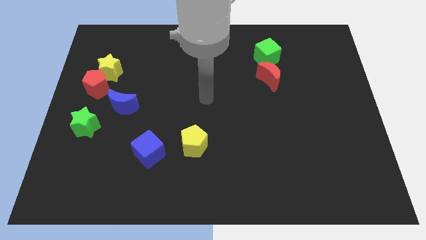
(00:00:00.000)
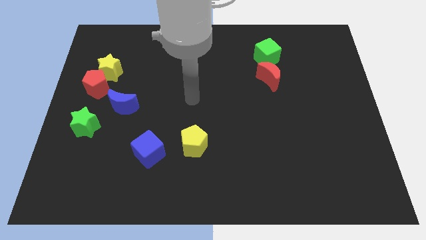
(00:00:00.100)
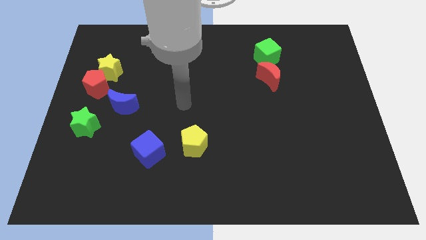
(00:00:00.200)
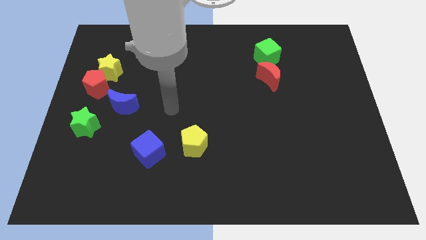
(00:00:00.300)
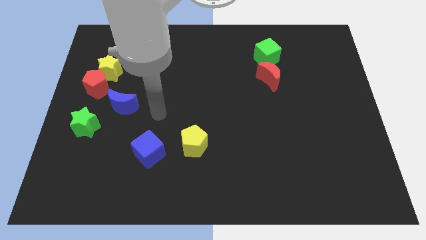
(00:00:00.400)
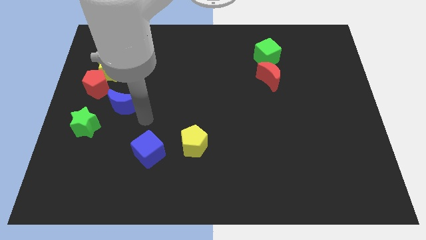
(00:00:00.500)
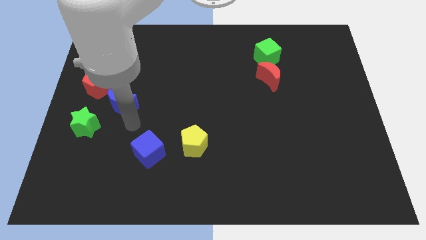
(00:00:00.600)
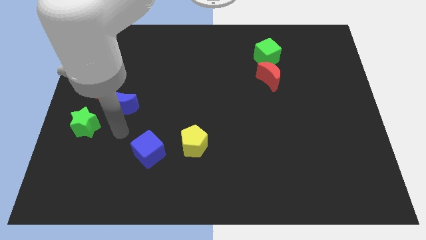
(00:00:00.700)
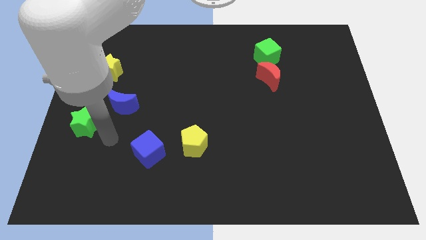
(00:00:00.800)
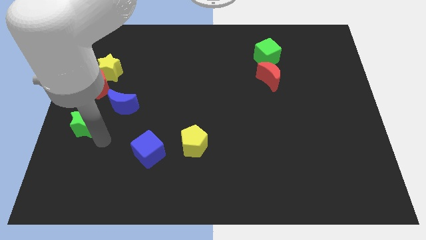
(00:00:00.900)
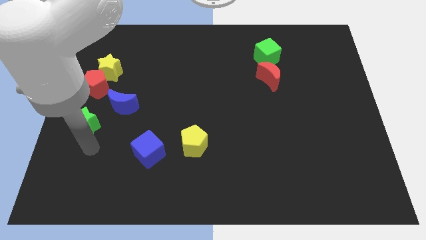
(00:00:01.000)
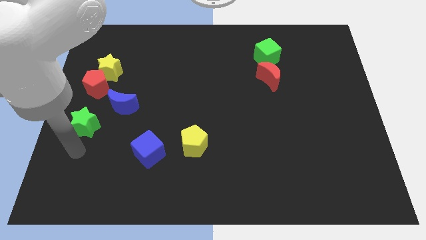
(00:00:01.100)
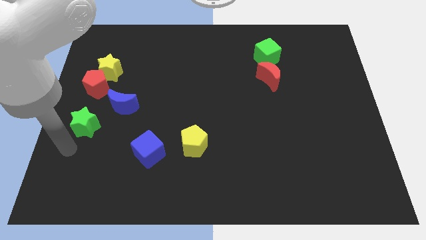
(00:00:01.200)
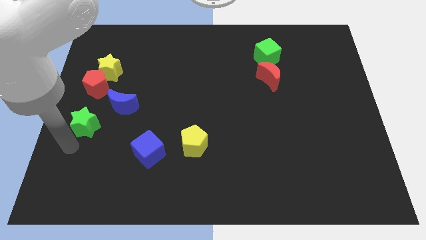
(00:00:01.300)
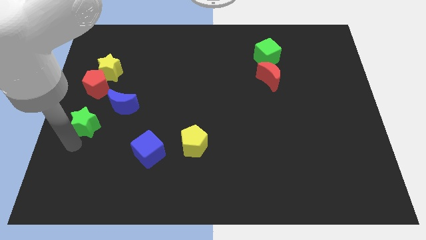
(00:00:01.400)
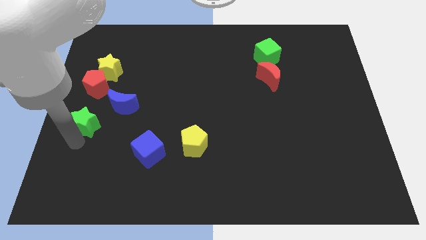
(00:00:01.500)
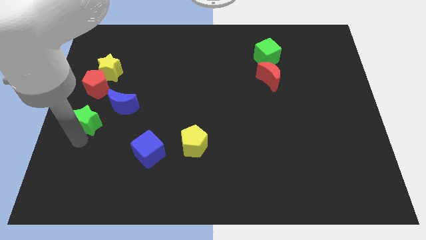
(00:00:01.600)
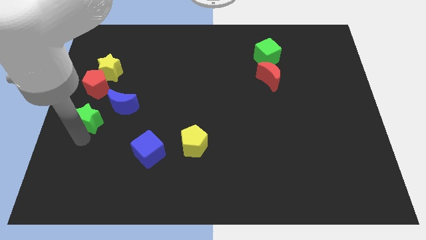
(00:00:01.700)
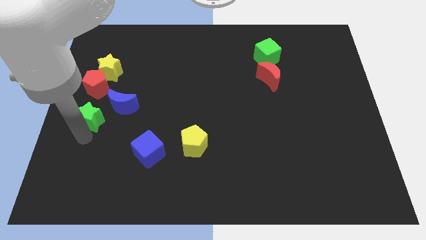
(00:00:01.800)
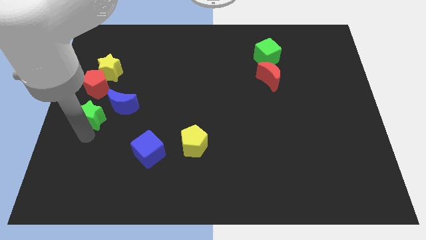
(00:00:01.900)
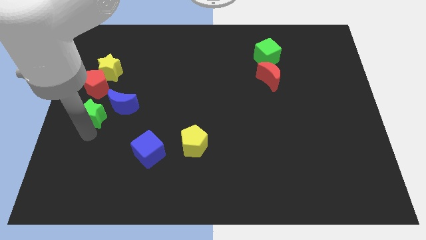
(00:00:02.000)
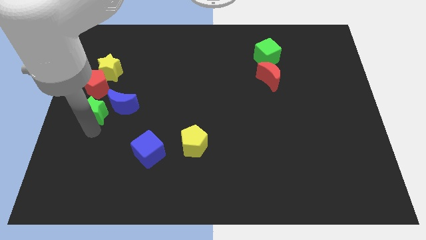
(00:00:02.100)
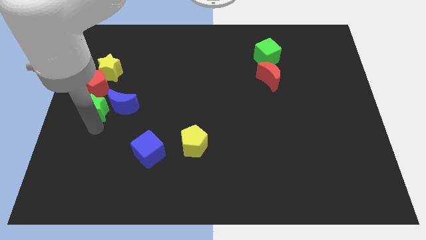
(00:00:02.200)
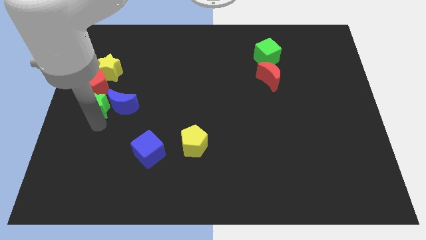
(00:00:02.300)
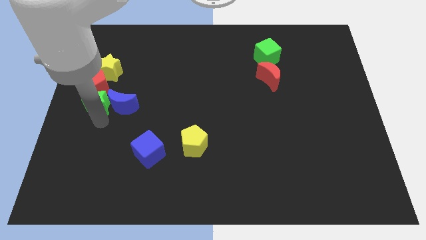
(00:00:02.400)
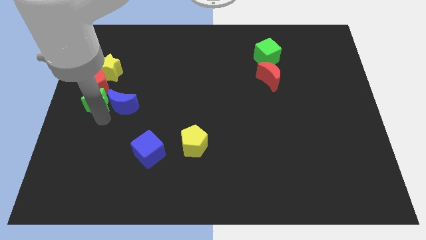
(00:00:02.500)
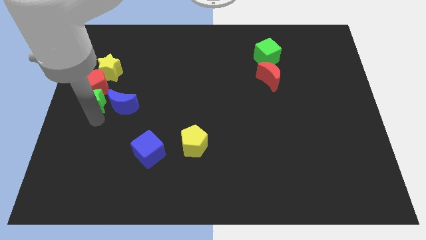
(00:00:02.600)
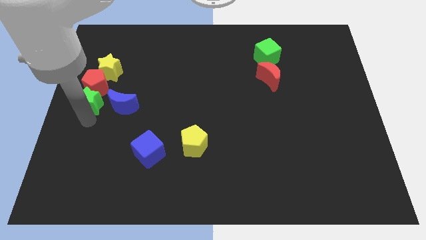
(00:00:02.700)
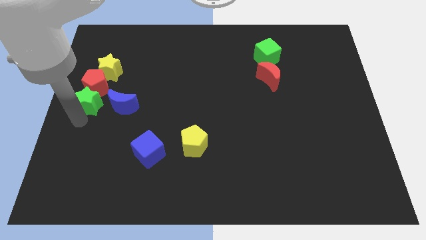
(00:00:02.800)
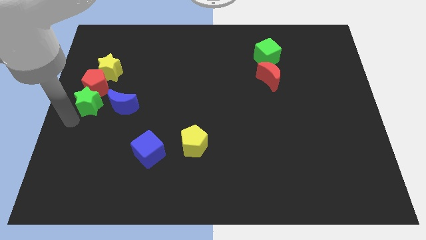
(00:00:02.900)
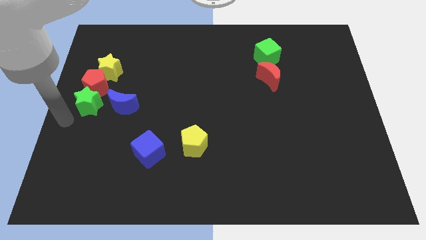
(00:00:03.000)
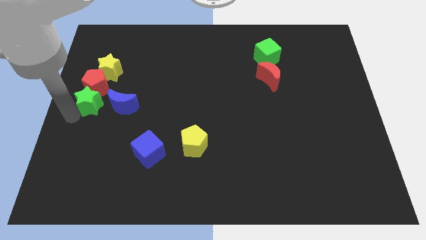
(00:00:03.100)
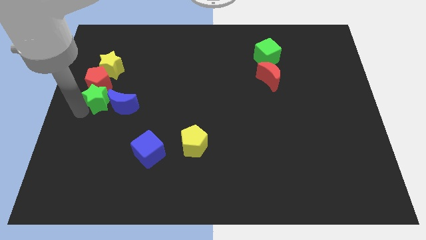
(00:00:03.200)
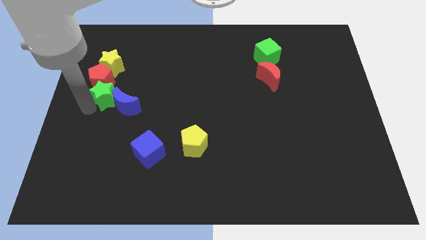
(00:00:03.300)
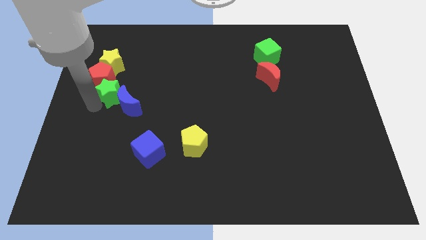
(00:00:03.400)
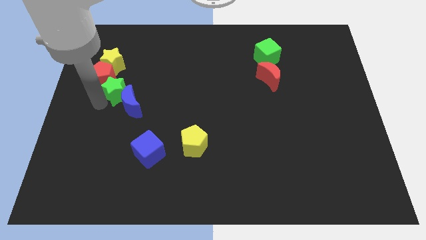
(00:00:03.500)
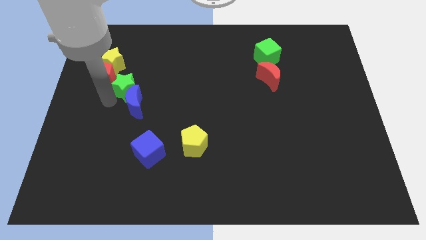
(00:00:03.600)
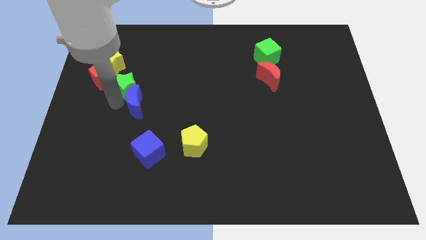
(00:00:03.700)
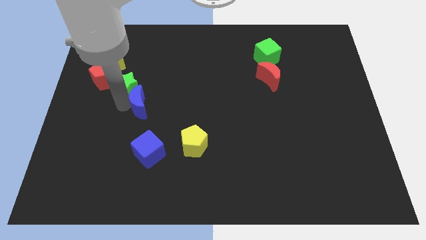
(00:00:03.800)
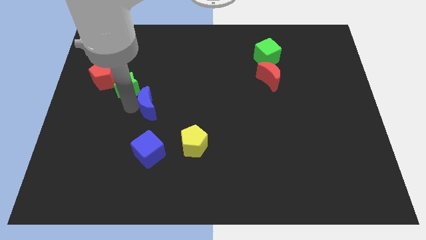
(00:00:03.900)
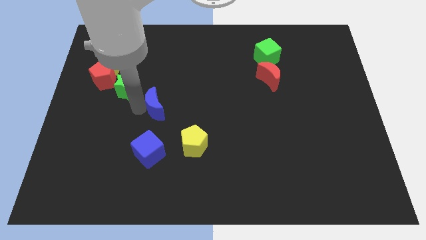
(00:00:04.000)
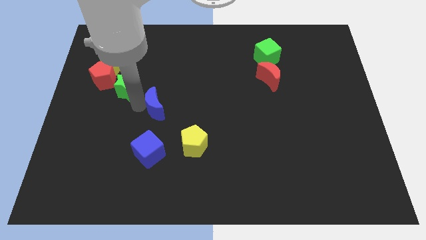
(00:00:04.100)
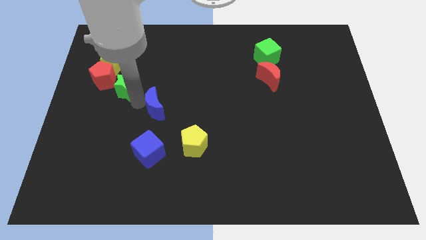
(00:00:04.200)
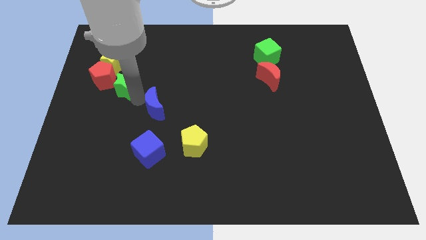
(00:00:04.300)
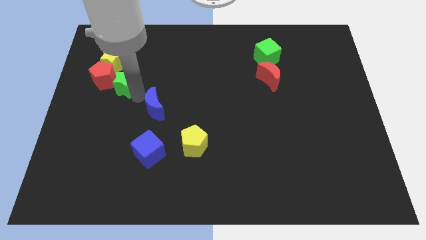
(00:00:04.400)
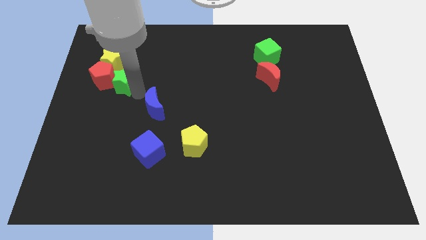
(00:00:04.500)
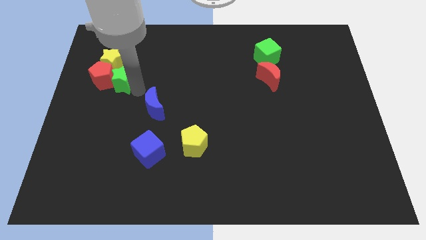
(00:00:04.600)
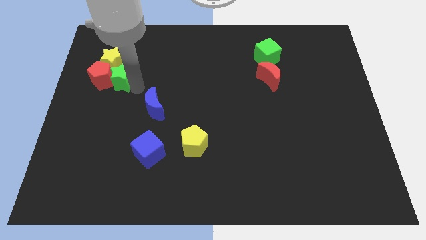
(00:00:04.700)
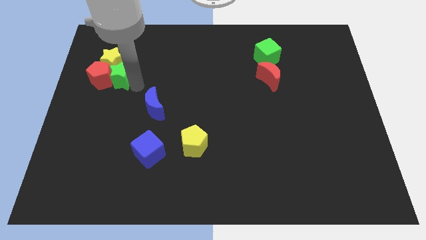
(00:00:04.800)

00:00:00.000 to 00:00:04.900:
slide the green star next to the yellow star

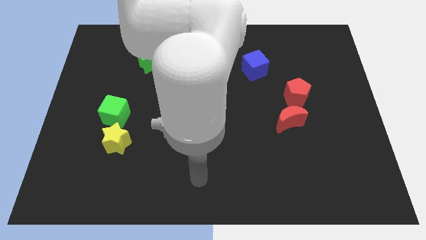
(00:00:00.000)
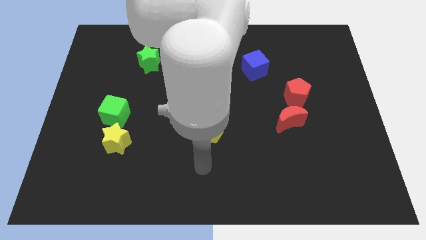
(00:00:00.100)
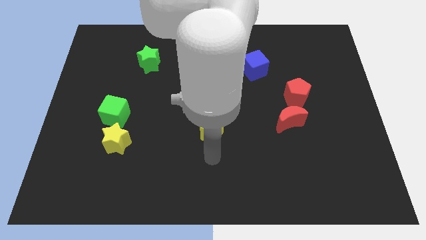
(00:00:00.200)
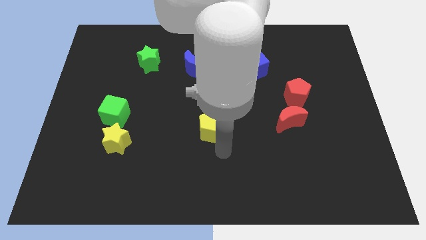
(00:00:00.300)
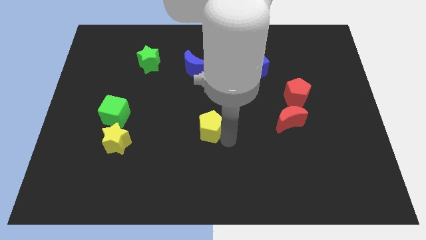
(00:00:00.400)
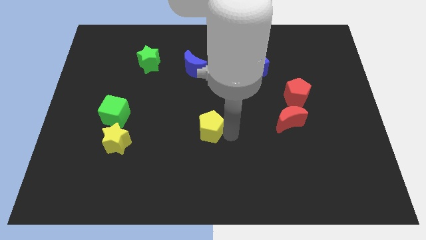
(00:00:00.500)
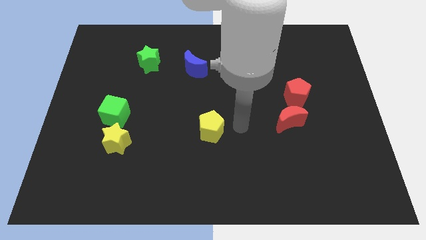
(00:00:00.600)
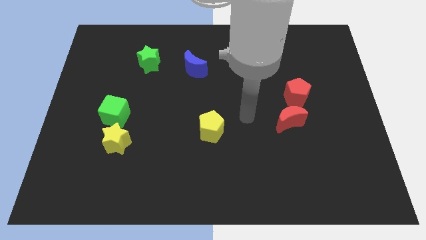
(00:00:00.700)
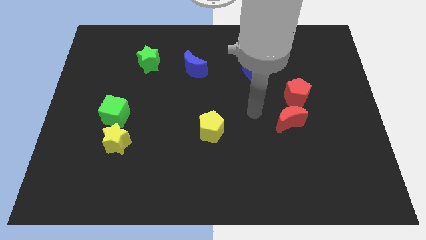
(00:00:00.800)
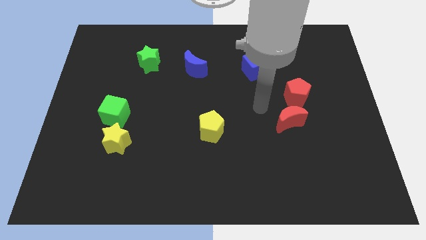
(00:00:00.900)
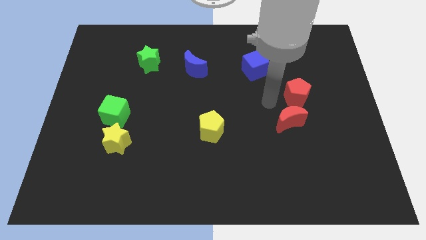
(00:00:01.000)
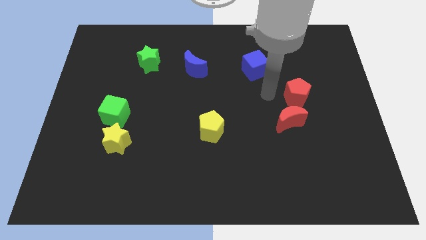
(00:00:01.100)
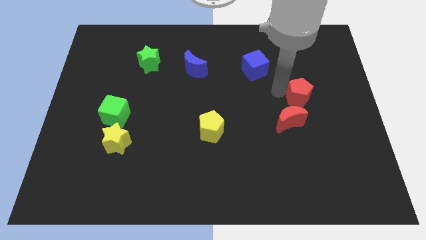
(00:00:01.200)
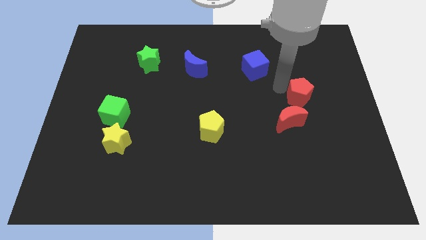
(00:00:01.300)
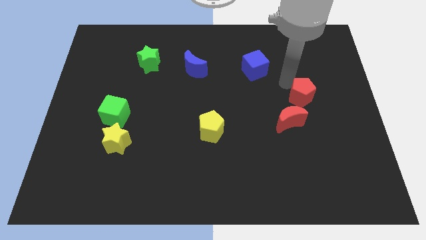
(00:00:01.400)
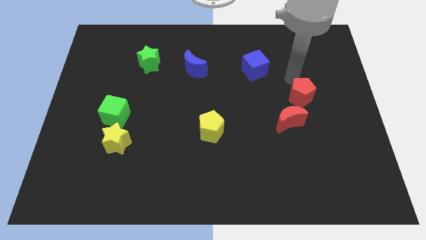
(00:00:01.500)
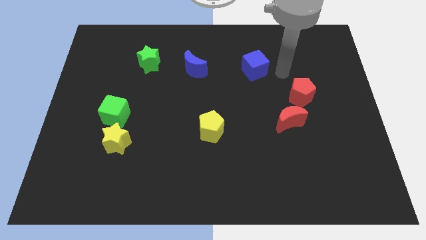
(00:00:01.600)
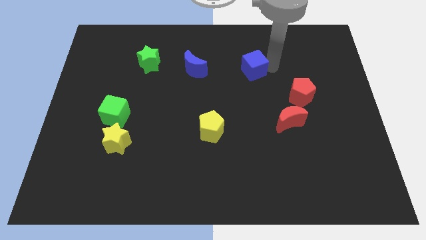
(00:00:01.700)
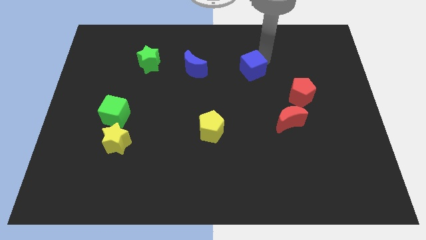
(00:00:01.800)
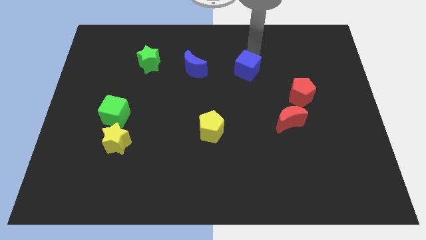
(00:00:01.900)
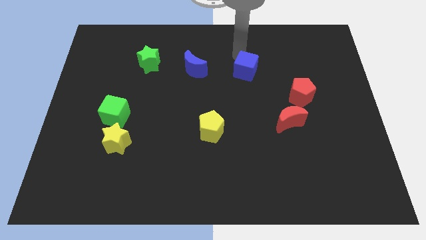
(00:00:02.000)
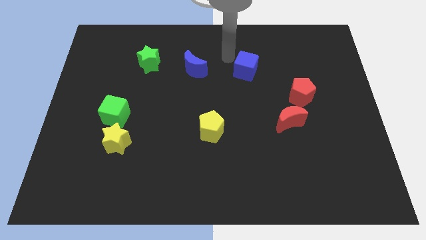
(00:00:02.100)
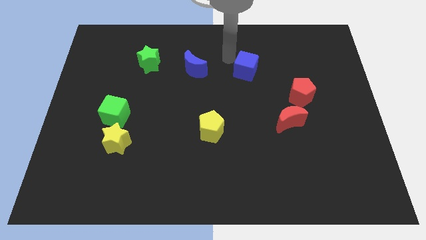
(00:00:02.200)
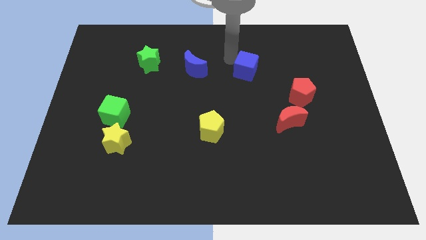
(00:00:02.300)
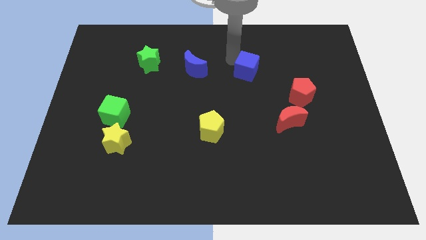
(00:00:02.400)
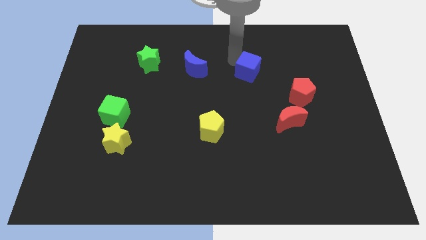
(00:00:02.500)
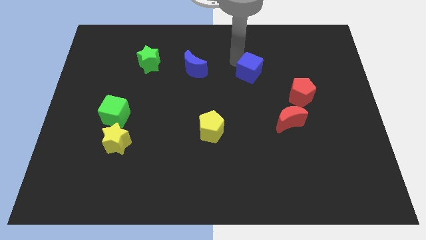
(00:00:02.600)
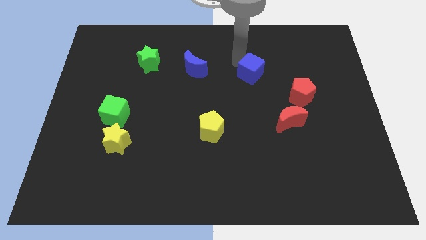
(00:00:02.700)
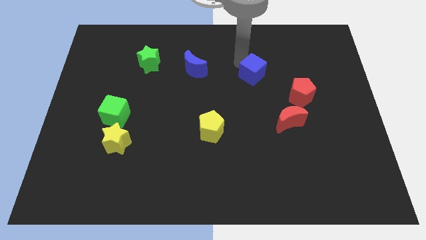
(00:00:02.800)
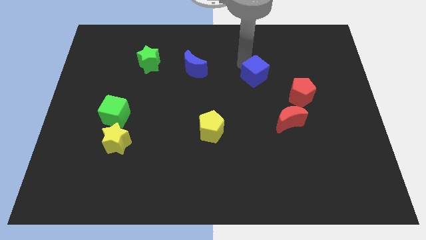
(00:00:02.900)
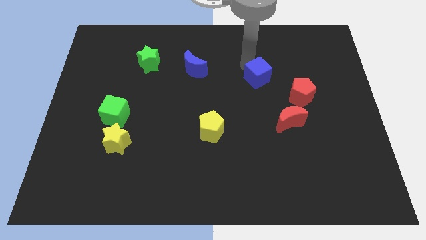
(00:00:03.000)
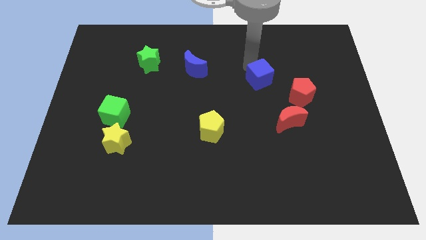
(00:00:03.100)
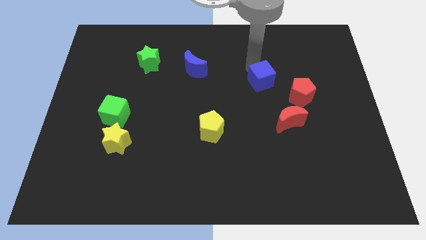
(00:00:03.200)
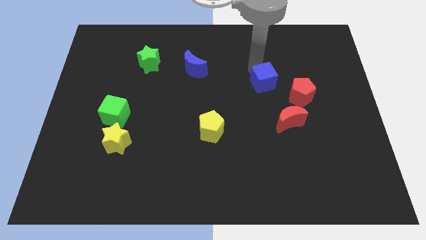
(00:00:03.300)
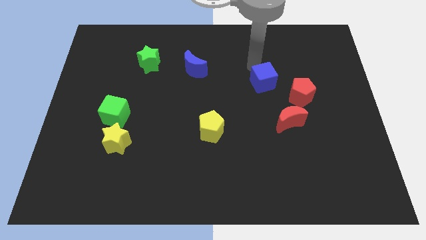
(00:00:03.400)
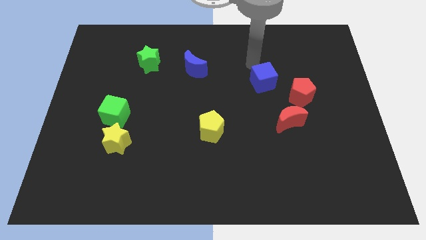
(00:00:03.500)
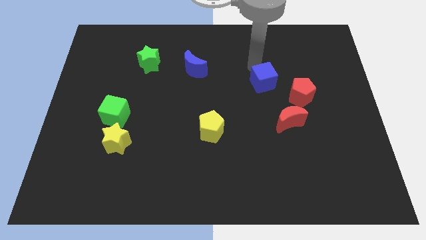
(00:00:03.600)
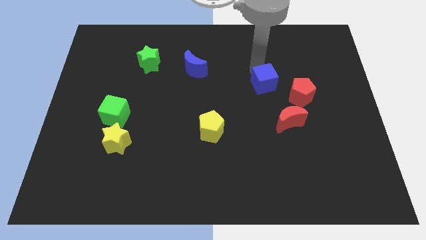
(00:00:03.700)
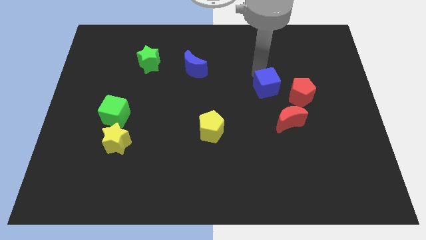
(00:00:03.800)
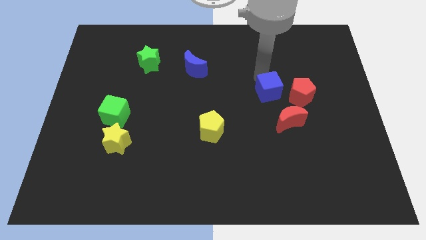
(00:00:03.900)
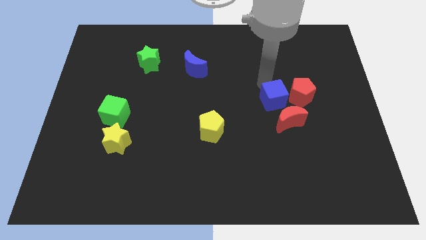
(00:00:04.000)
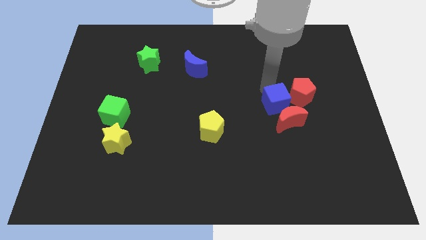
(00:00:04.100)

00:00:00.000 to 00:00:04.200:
slide the blue cube close to the red moon
